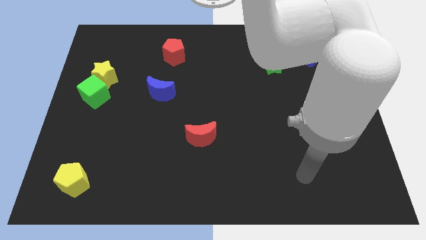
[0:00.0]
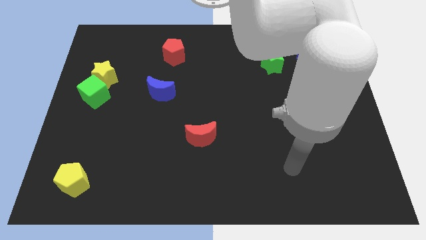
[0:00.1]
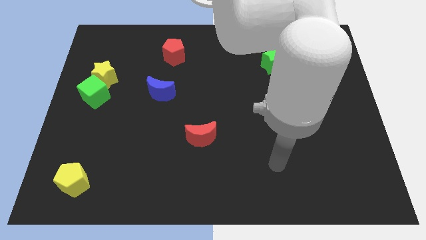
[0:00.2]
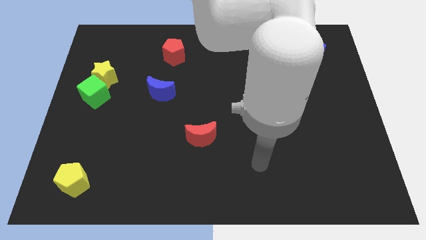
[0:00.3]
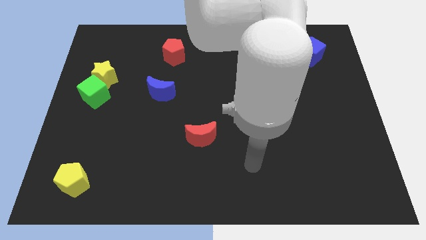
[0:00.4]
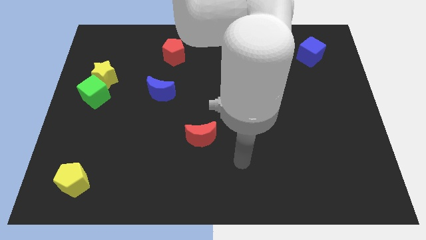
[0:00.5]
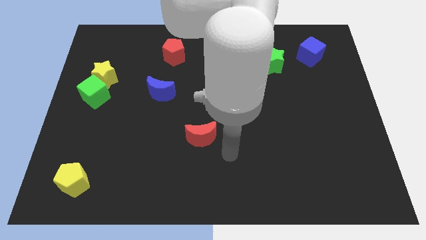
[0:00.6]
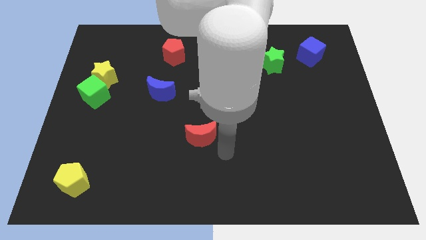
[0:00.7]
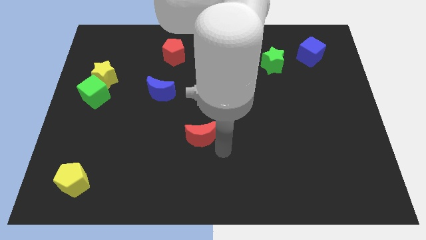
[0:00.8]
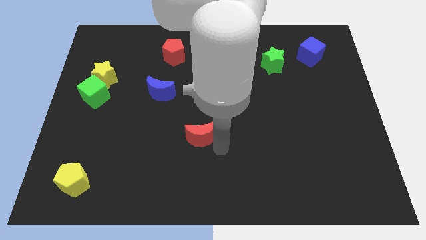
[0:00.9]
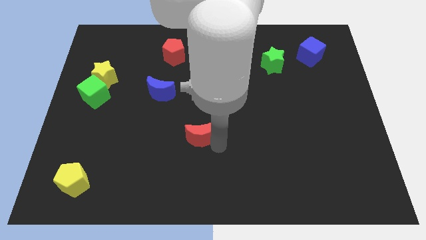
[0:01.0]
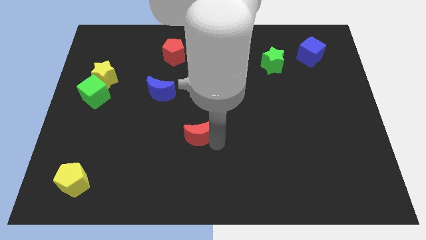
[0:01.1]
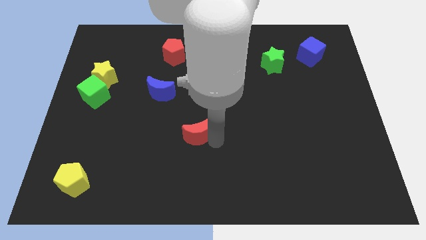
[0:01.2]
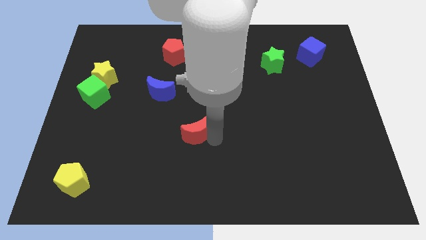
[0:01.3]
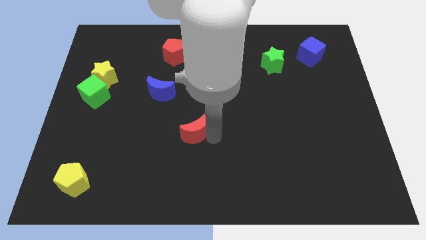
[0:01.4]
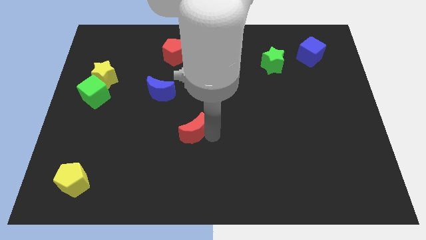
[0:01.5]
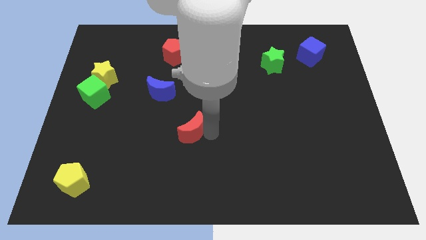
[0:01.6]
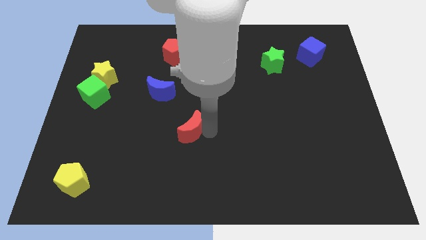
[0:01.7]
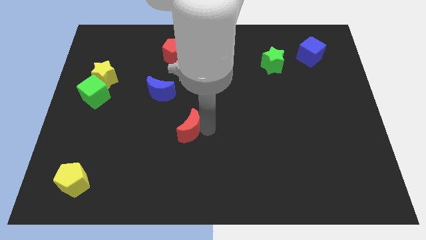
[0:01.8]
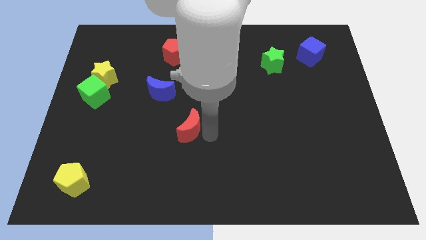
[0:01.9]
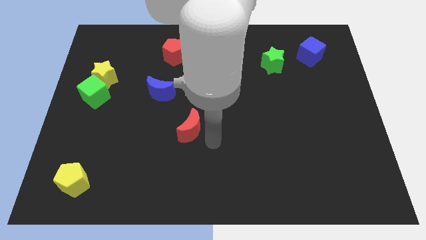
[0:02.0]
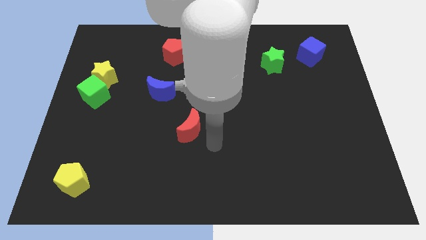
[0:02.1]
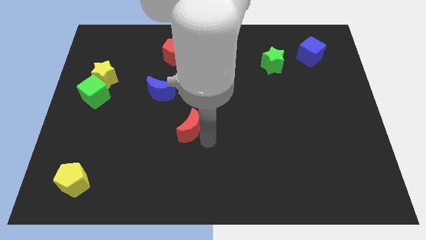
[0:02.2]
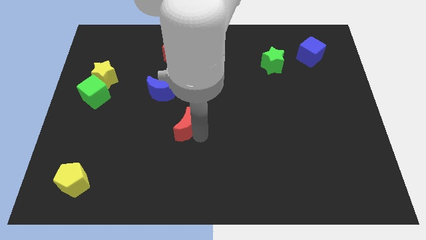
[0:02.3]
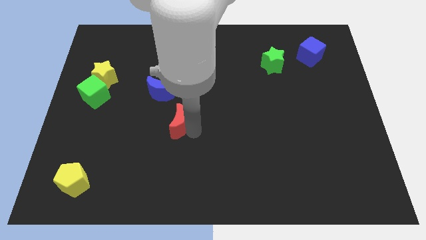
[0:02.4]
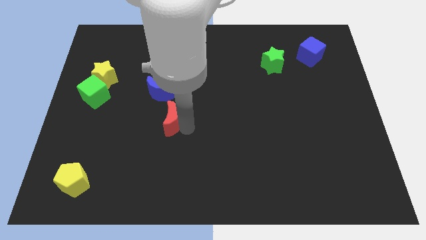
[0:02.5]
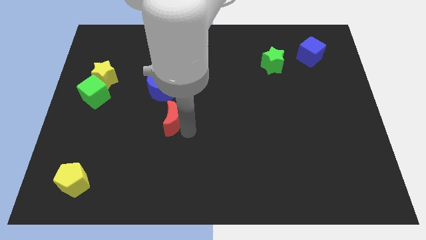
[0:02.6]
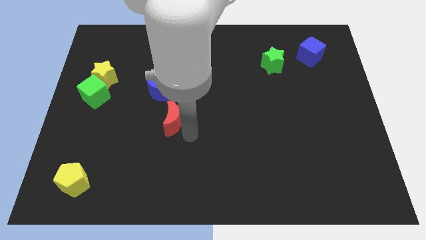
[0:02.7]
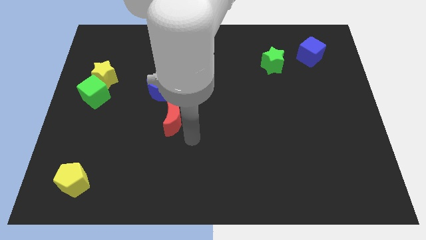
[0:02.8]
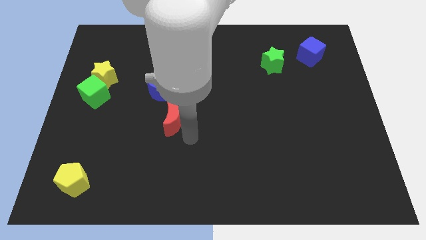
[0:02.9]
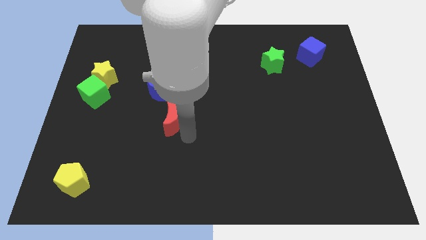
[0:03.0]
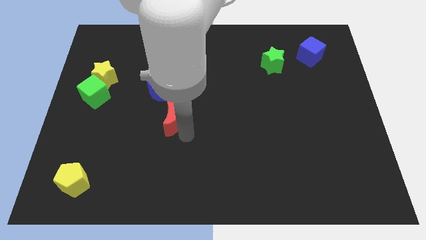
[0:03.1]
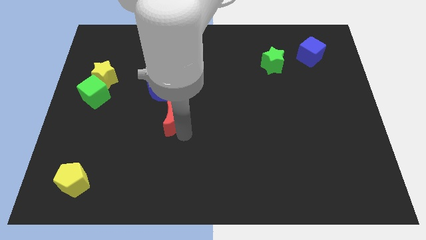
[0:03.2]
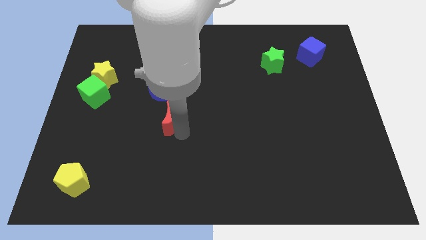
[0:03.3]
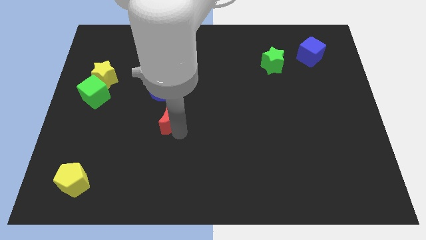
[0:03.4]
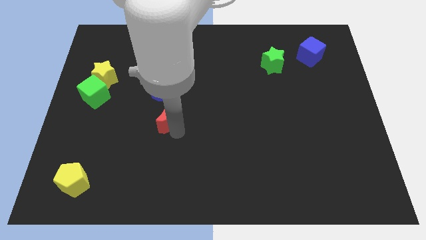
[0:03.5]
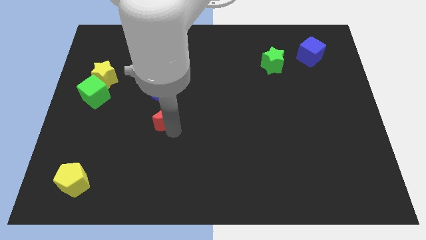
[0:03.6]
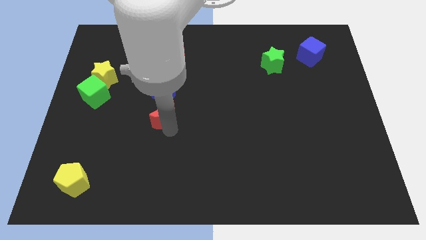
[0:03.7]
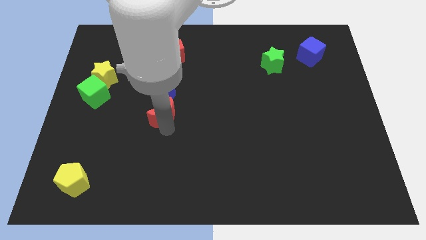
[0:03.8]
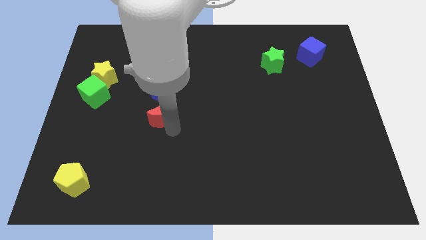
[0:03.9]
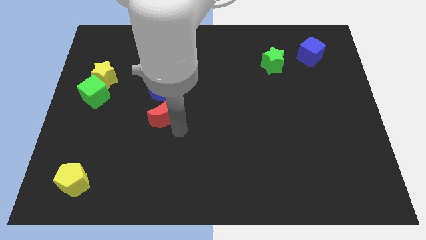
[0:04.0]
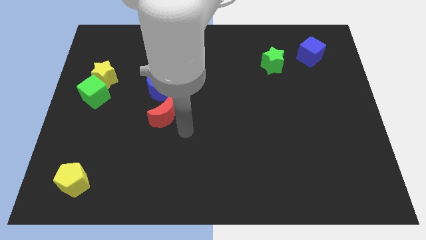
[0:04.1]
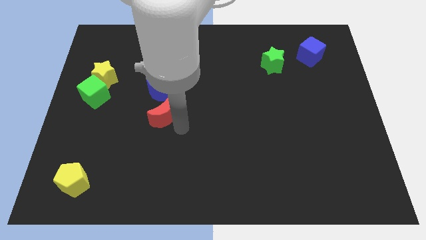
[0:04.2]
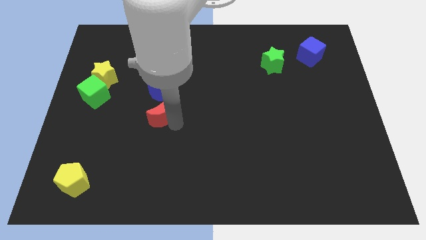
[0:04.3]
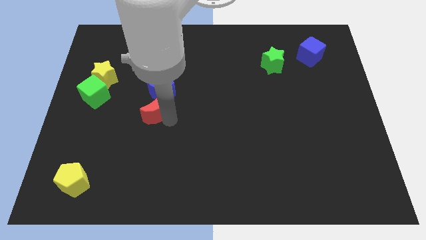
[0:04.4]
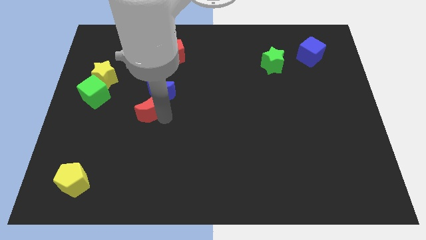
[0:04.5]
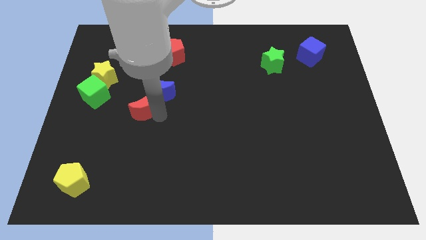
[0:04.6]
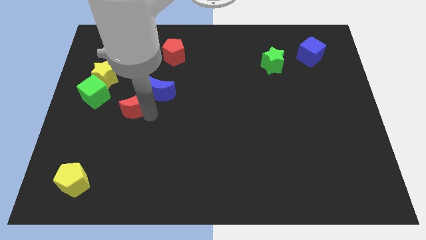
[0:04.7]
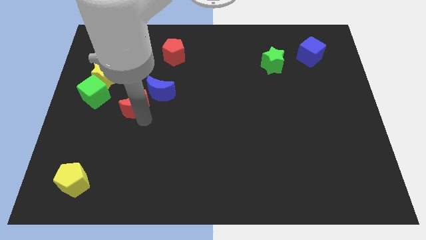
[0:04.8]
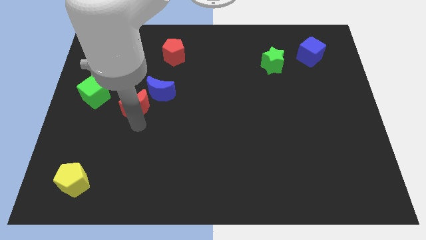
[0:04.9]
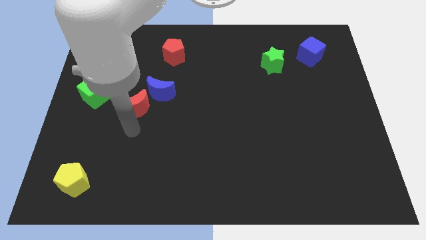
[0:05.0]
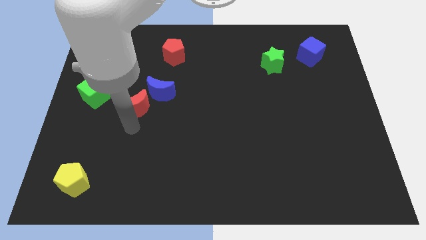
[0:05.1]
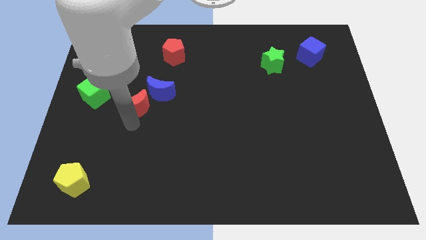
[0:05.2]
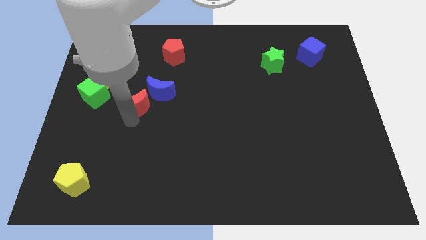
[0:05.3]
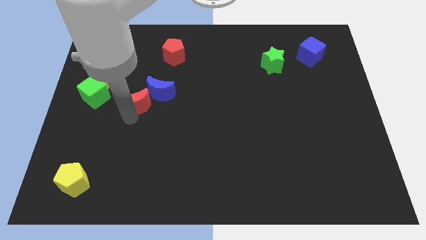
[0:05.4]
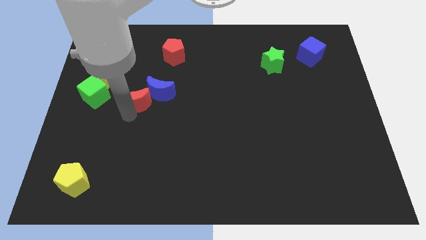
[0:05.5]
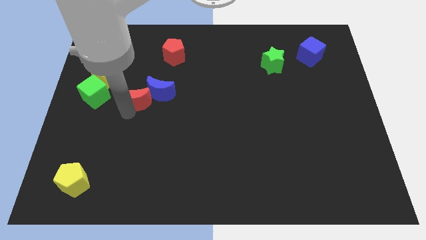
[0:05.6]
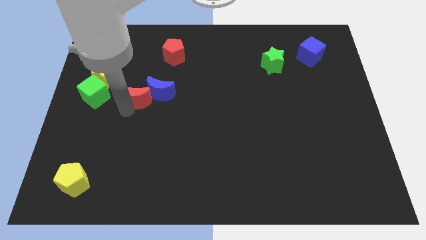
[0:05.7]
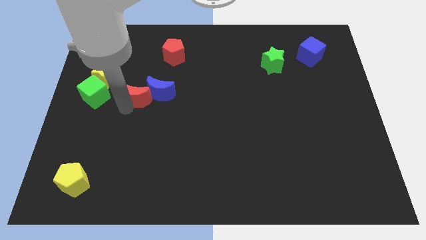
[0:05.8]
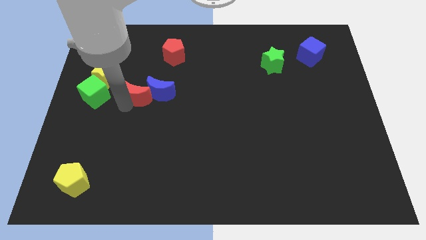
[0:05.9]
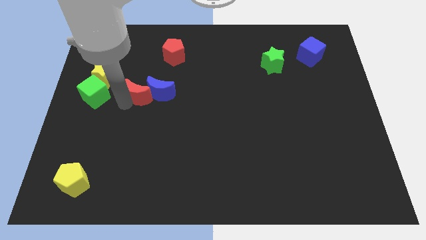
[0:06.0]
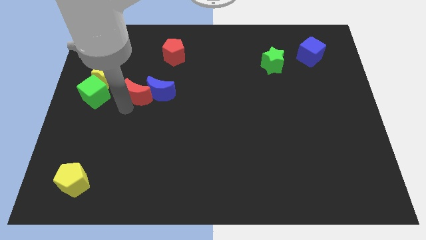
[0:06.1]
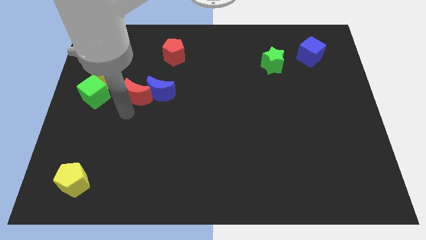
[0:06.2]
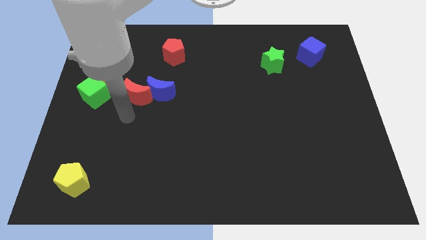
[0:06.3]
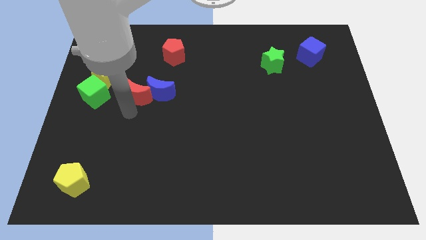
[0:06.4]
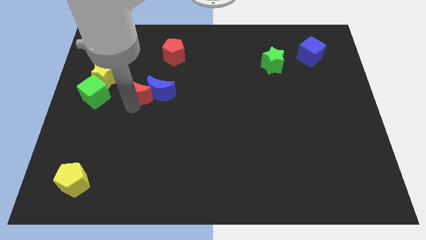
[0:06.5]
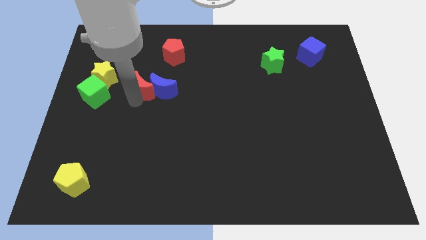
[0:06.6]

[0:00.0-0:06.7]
put the red moon to the right side of the yellow star
